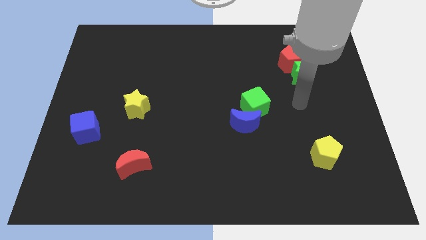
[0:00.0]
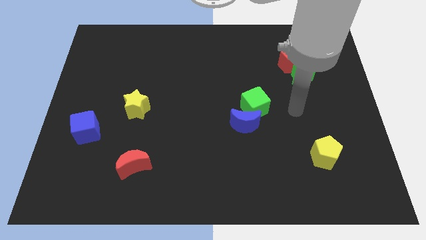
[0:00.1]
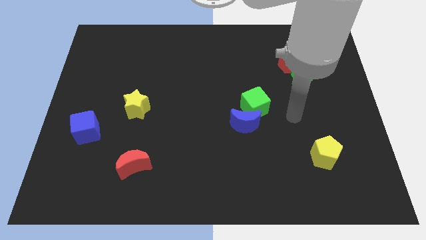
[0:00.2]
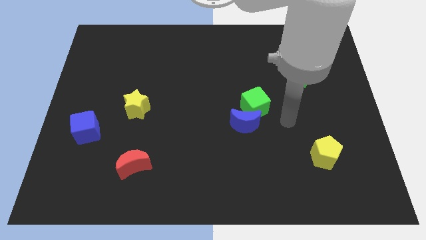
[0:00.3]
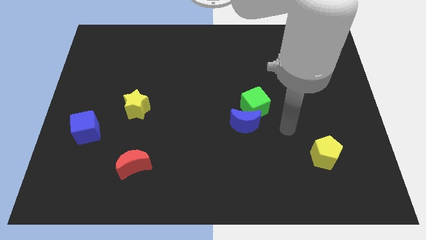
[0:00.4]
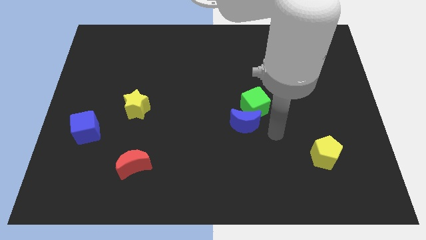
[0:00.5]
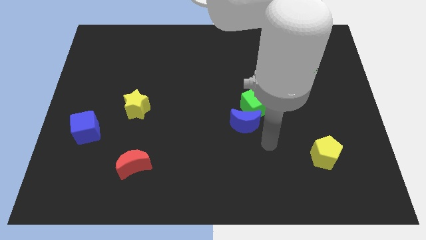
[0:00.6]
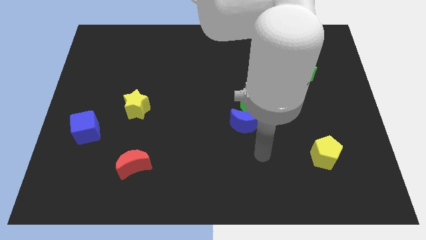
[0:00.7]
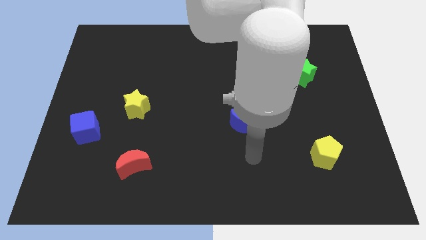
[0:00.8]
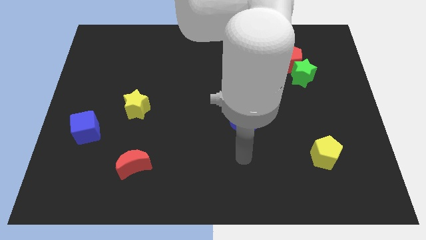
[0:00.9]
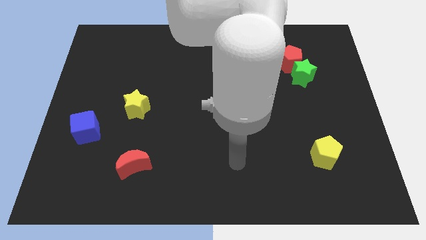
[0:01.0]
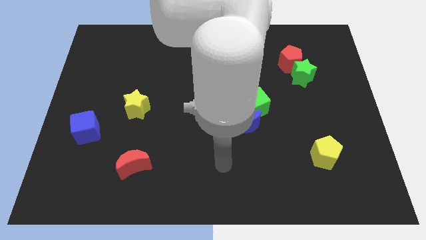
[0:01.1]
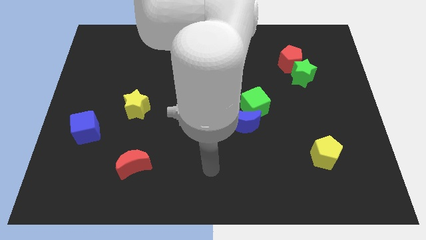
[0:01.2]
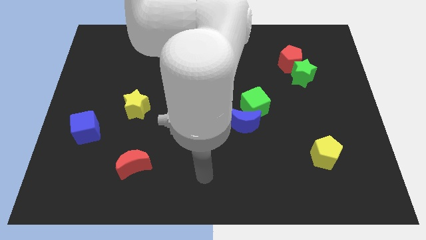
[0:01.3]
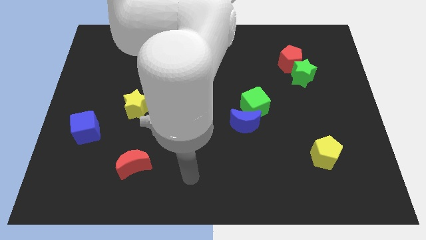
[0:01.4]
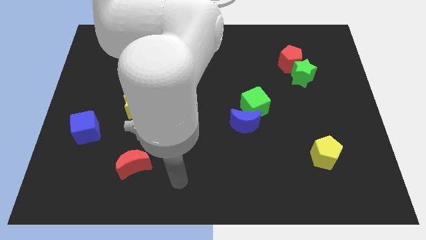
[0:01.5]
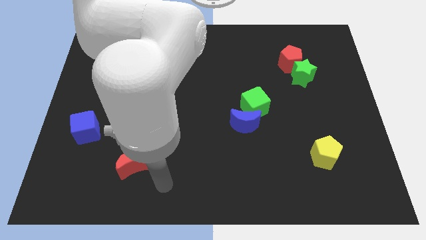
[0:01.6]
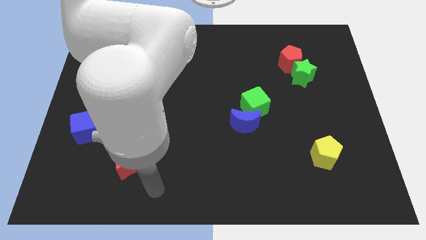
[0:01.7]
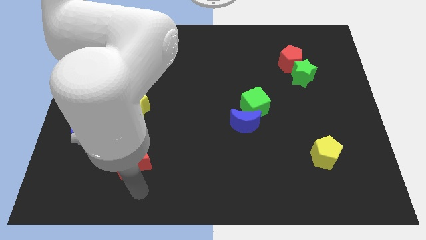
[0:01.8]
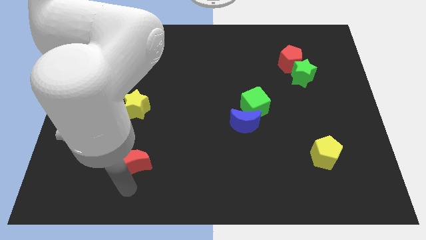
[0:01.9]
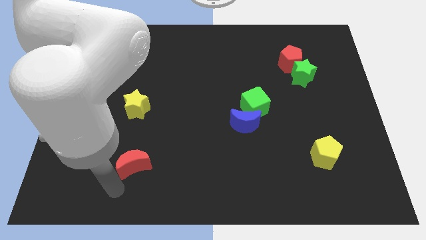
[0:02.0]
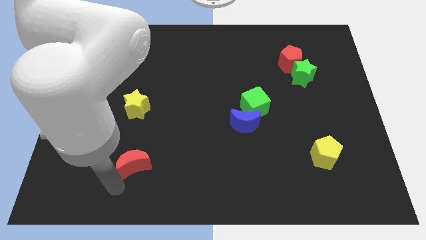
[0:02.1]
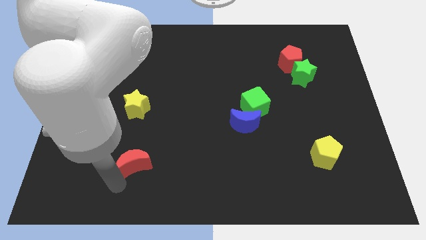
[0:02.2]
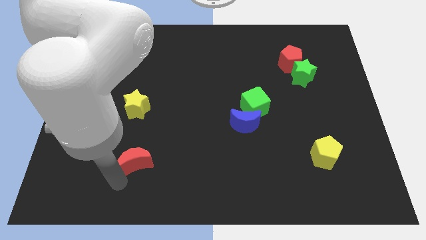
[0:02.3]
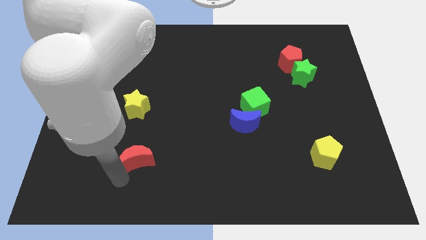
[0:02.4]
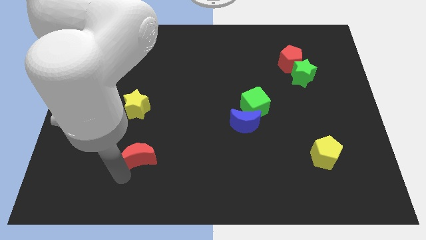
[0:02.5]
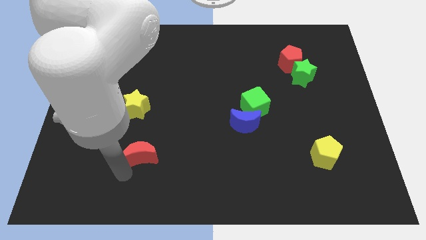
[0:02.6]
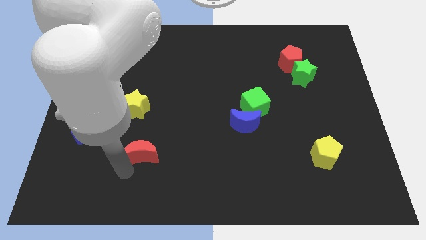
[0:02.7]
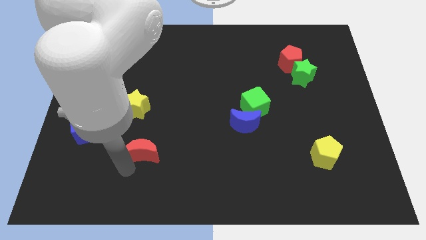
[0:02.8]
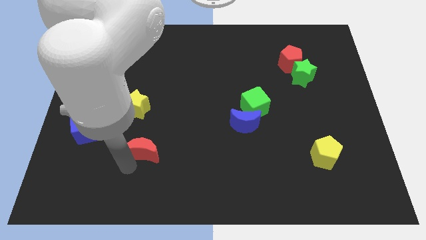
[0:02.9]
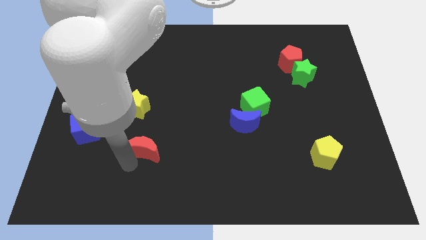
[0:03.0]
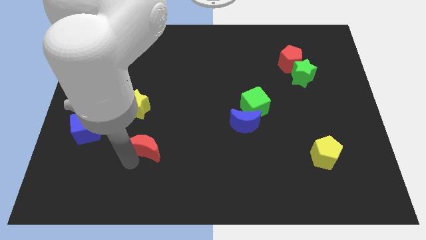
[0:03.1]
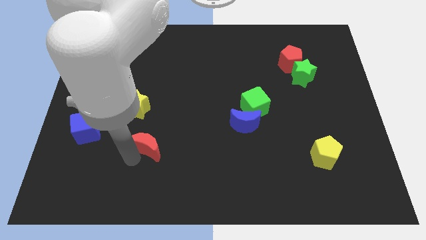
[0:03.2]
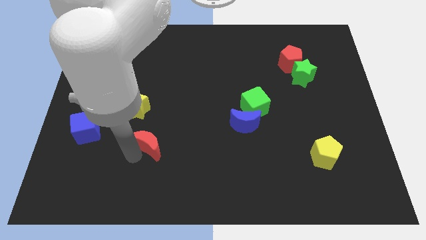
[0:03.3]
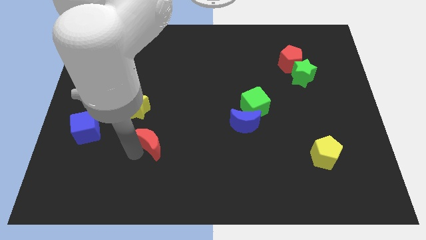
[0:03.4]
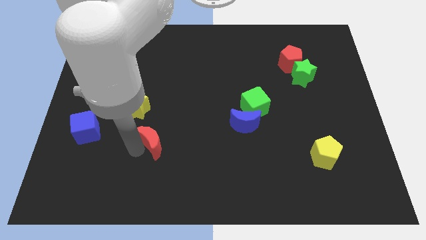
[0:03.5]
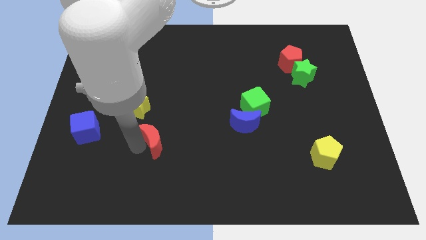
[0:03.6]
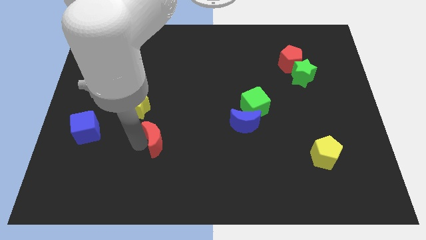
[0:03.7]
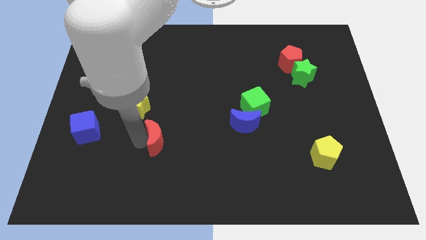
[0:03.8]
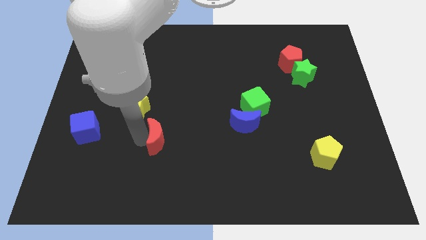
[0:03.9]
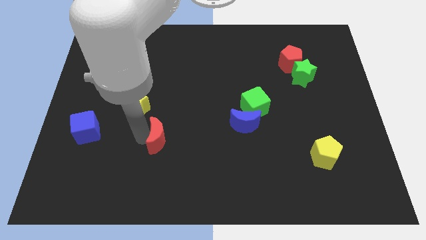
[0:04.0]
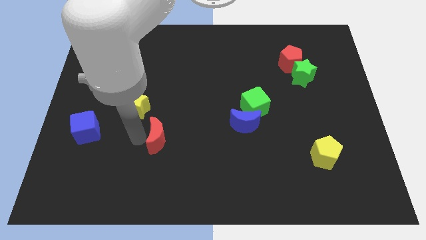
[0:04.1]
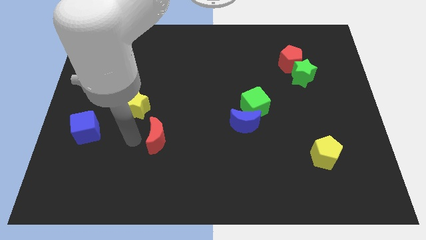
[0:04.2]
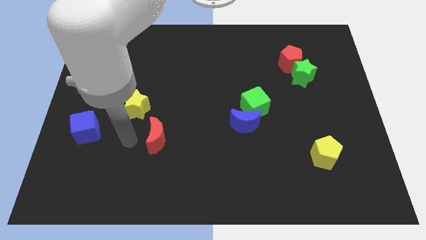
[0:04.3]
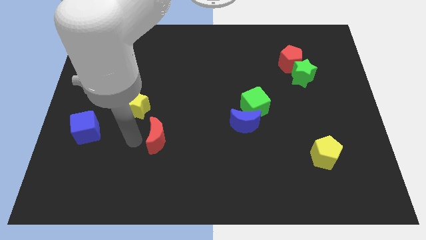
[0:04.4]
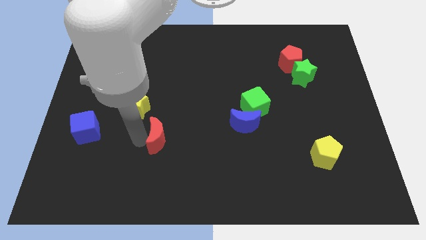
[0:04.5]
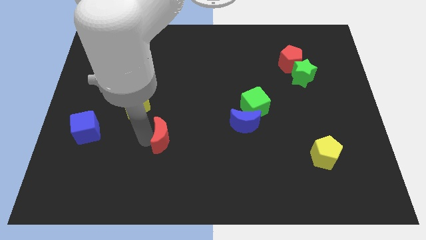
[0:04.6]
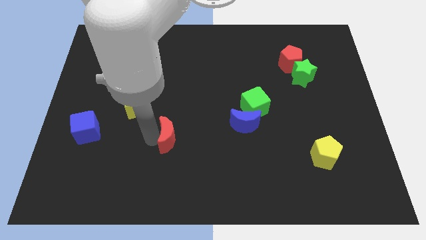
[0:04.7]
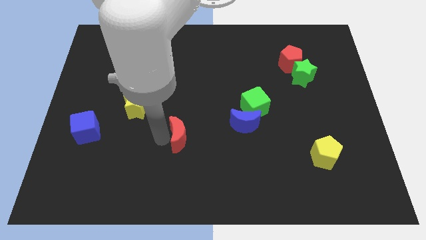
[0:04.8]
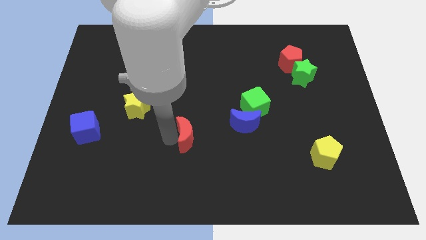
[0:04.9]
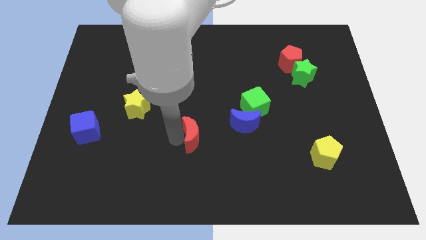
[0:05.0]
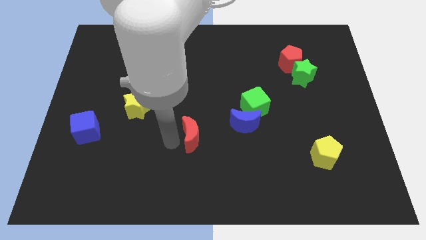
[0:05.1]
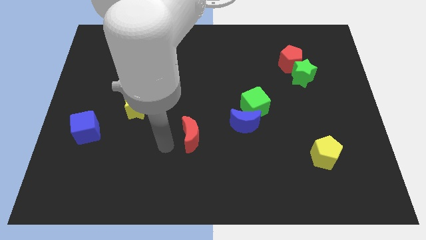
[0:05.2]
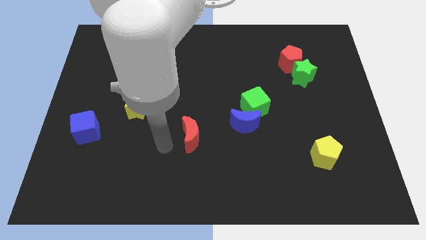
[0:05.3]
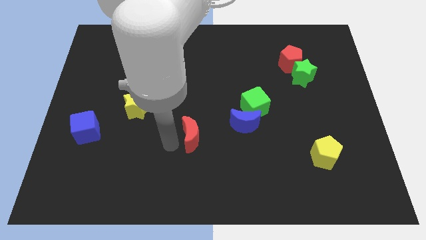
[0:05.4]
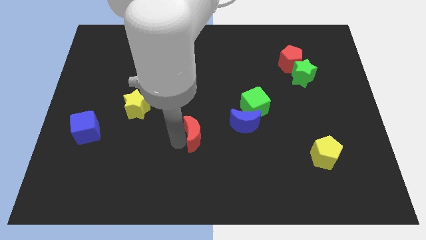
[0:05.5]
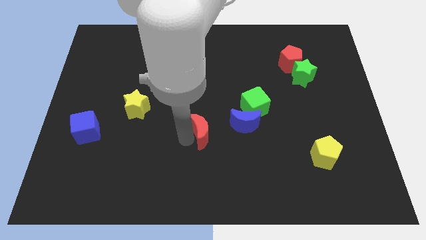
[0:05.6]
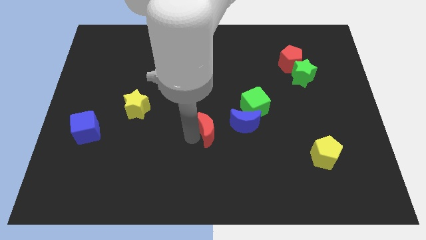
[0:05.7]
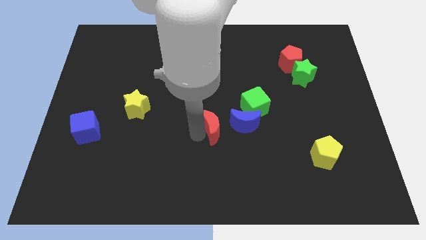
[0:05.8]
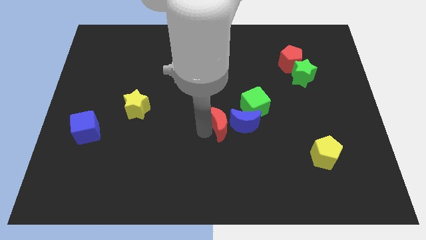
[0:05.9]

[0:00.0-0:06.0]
slide the red moon towards the blue moon
